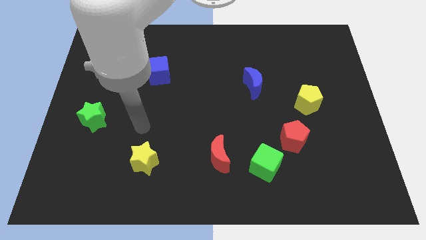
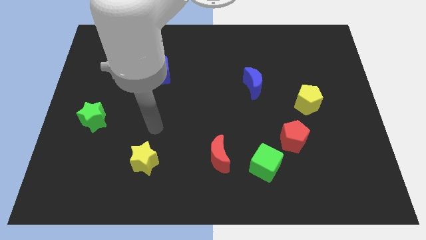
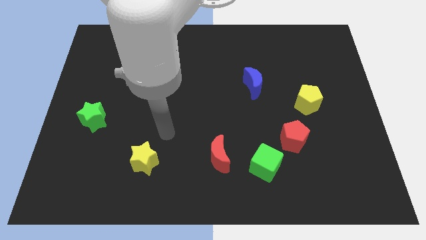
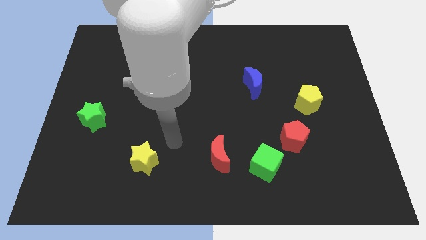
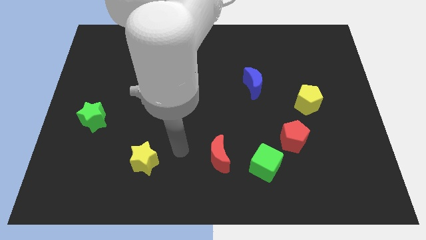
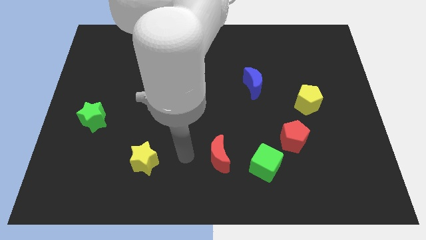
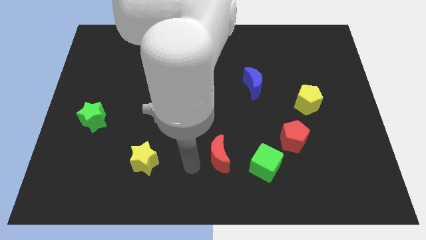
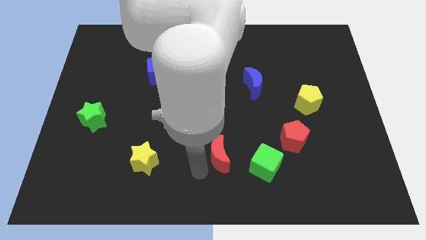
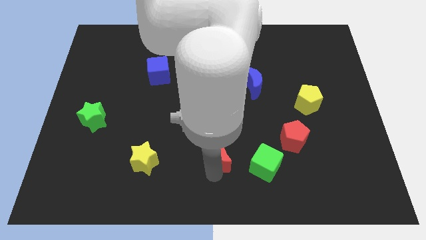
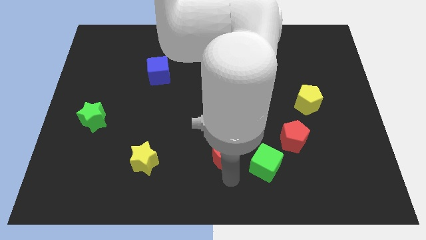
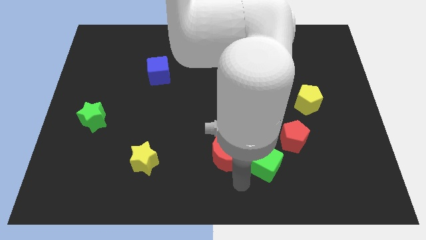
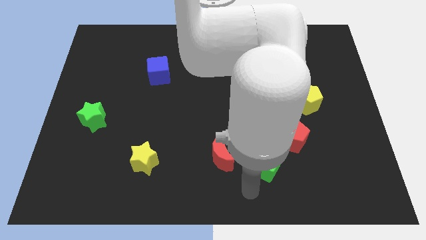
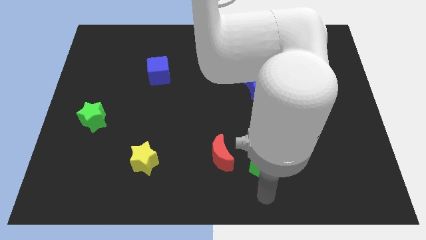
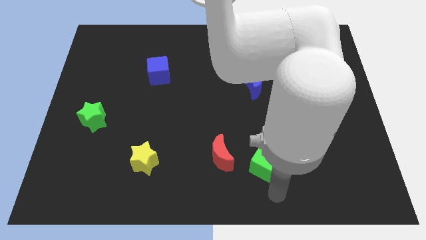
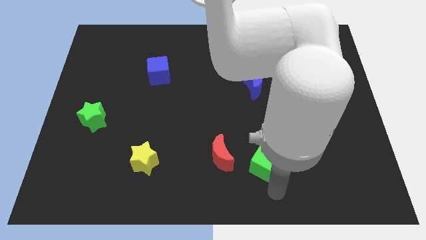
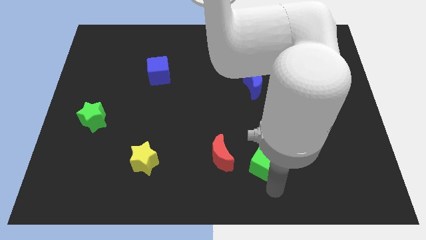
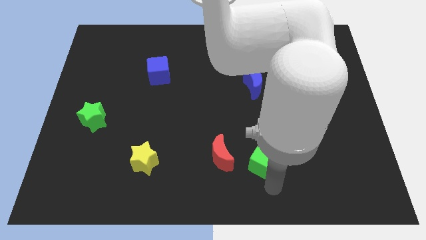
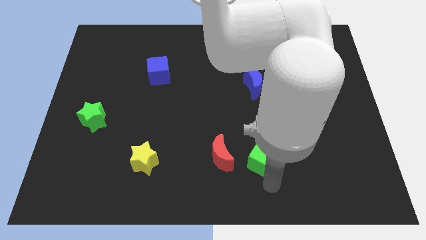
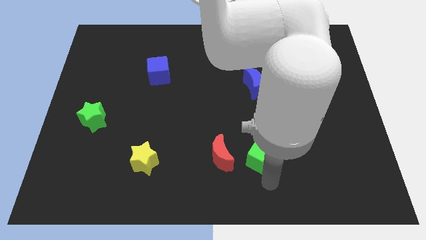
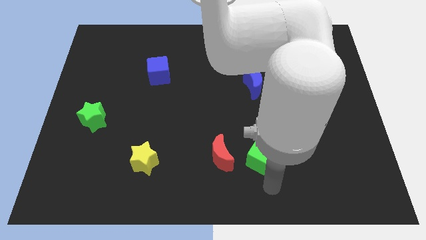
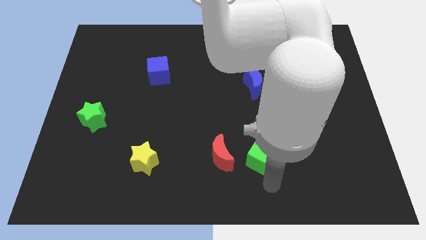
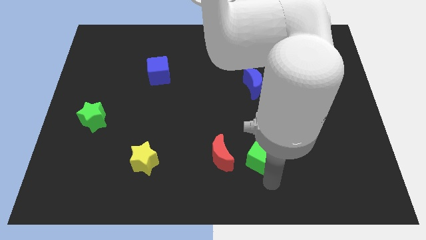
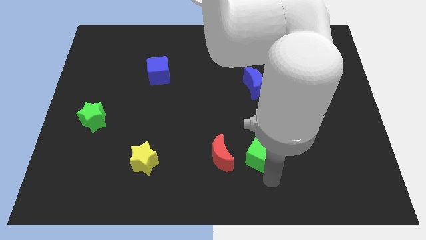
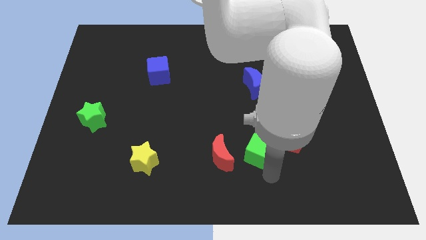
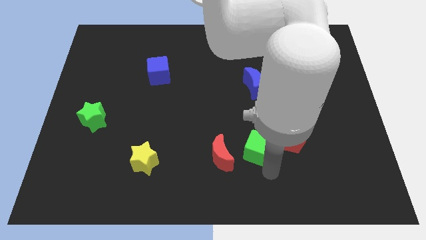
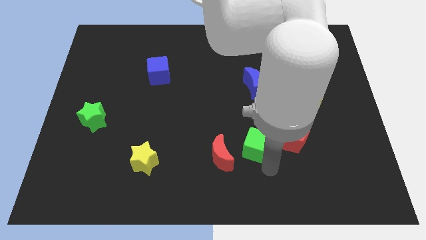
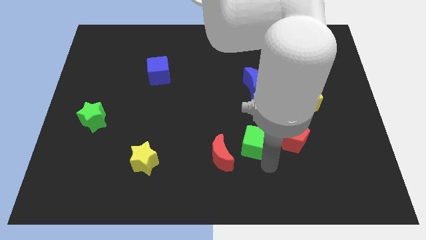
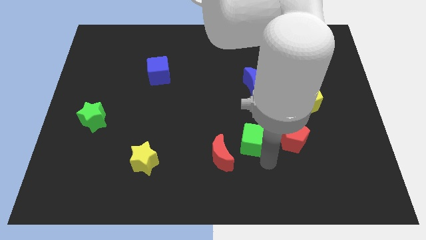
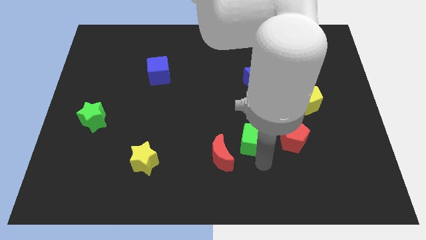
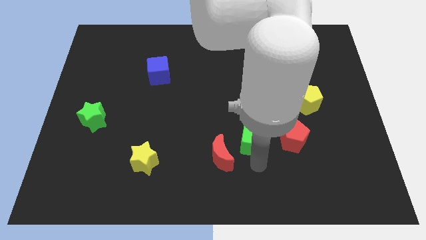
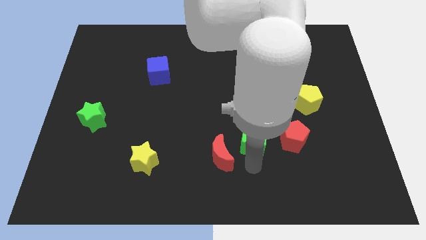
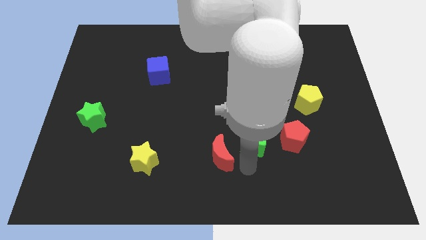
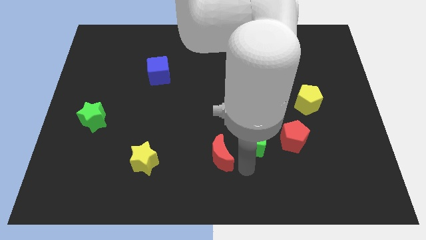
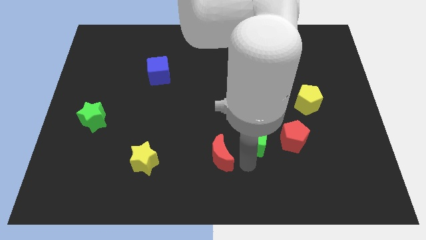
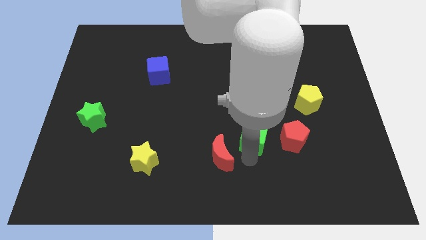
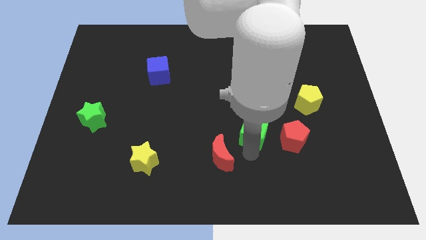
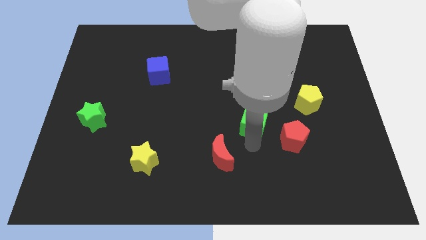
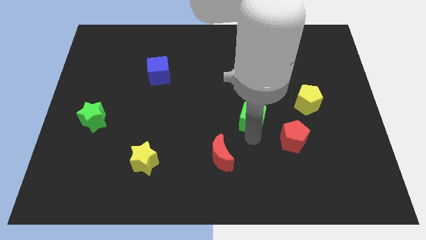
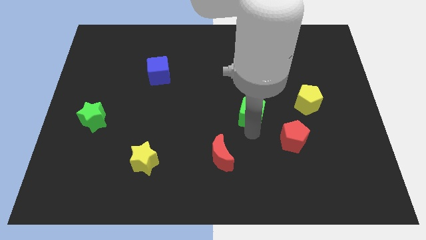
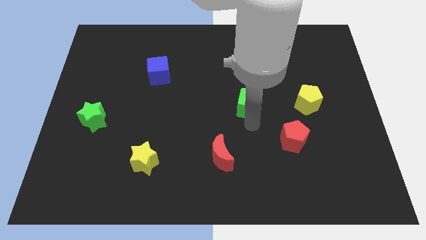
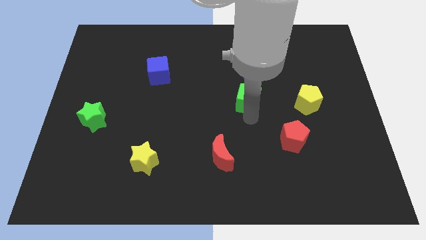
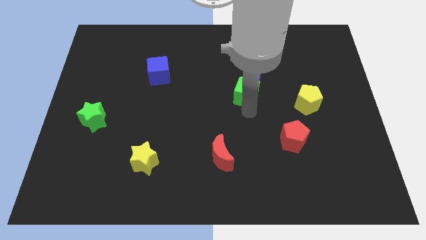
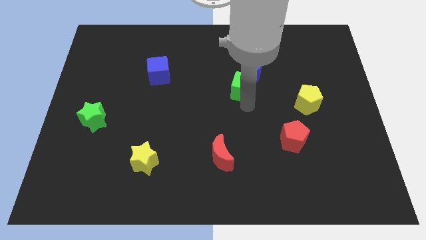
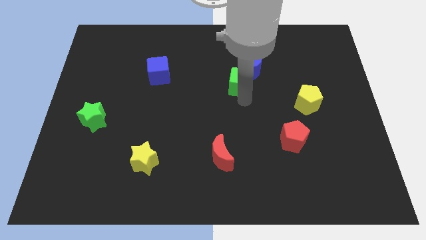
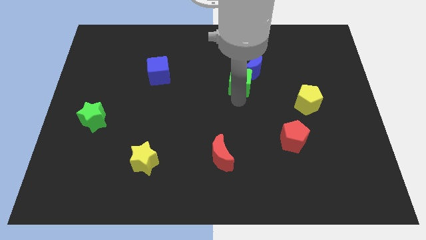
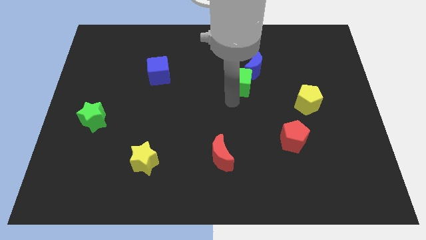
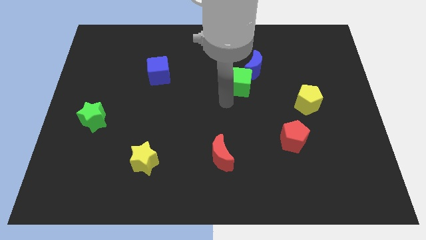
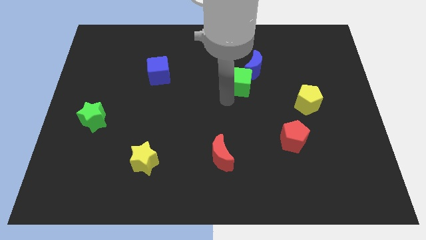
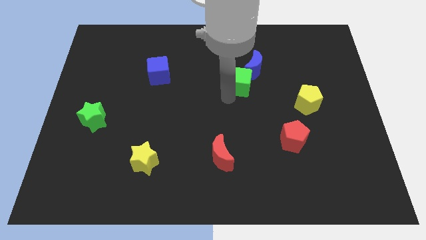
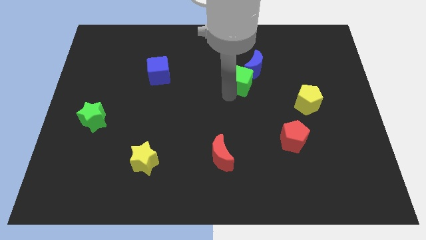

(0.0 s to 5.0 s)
slide the green cube next to the blue moon

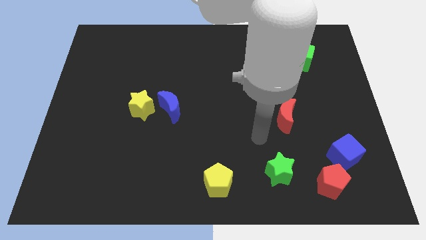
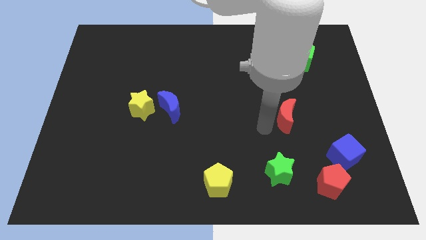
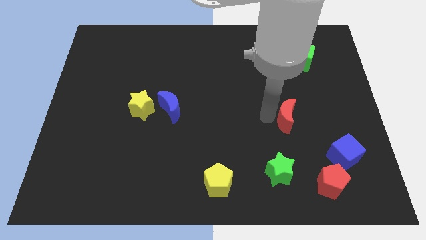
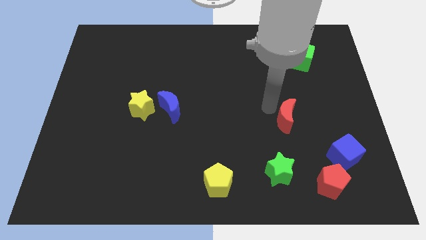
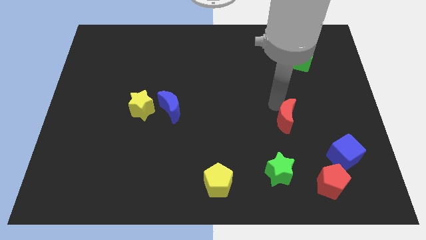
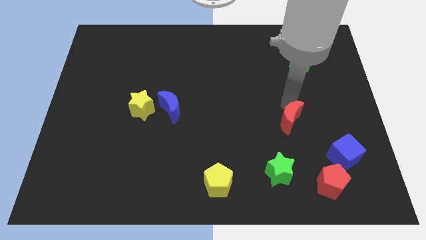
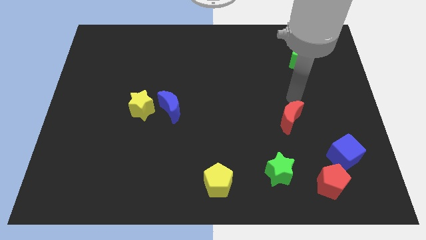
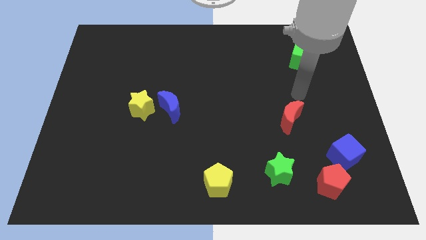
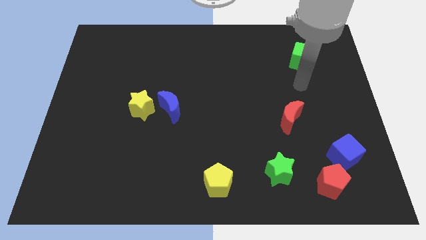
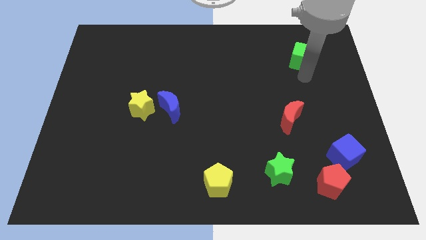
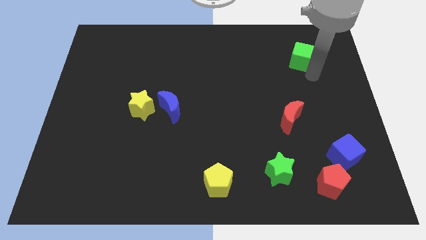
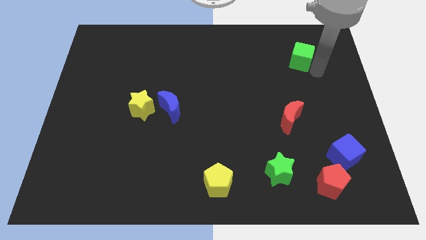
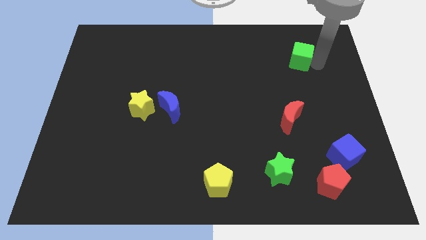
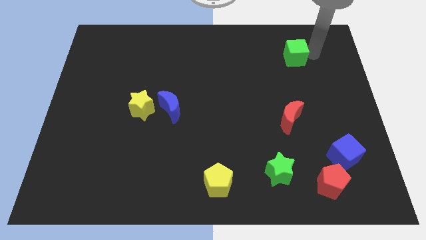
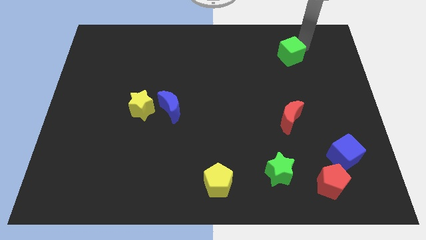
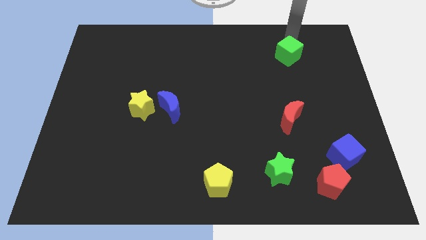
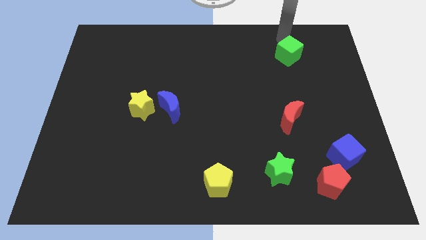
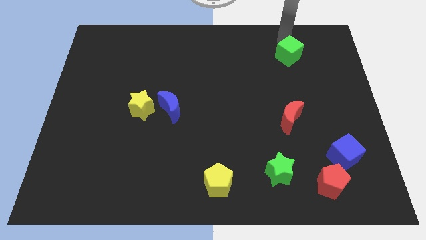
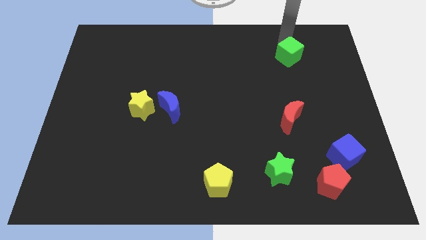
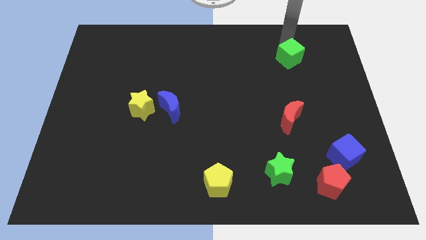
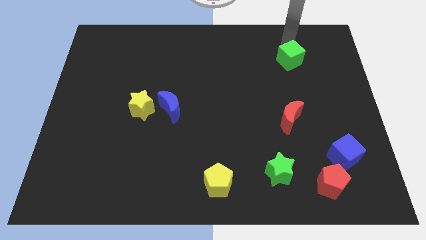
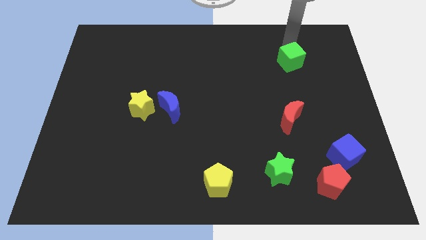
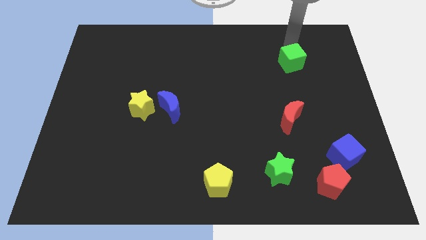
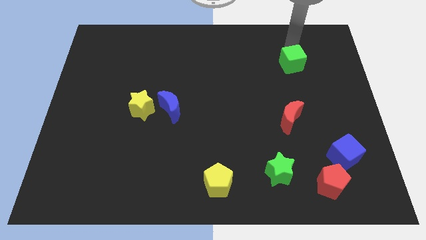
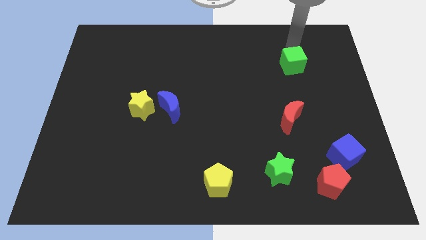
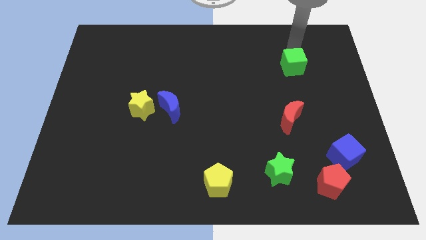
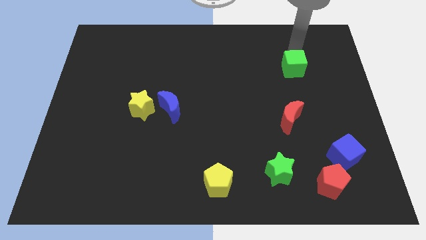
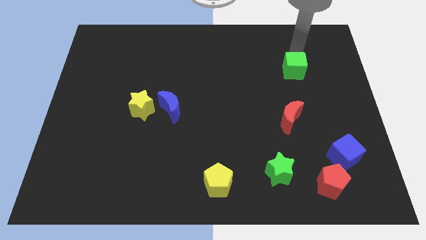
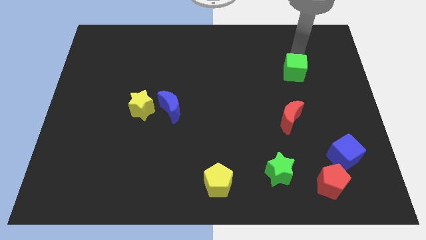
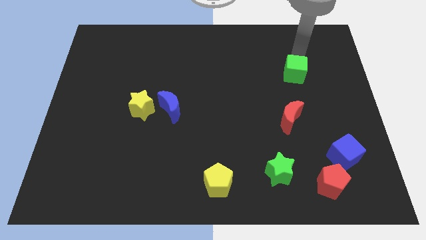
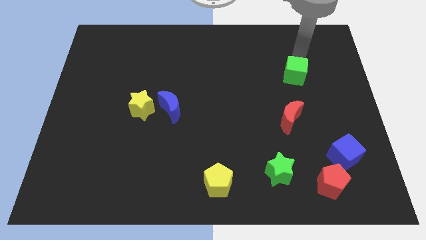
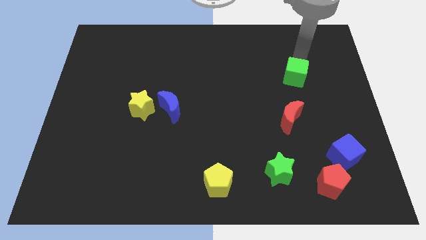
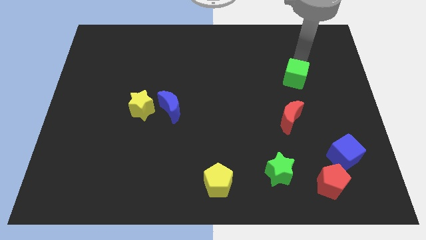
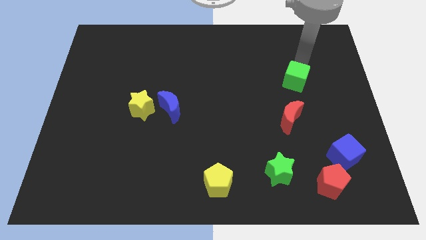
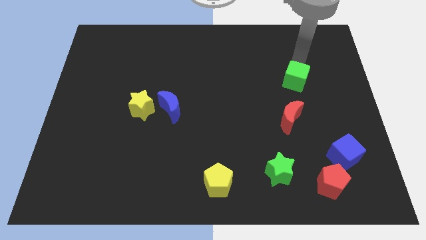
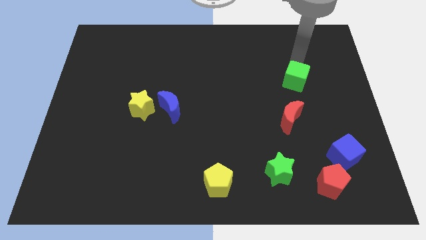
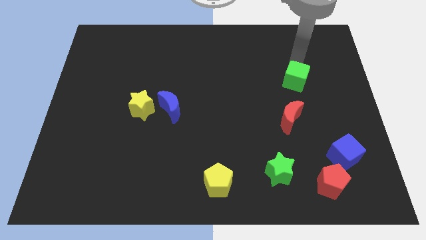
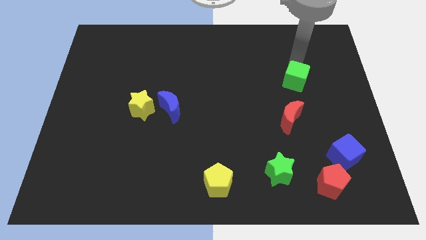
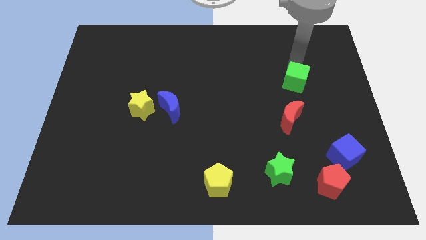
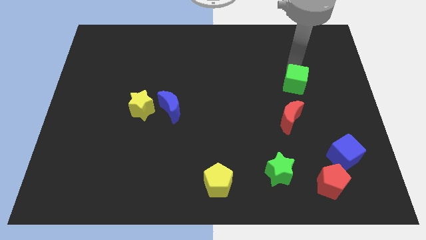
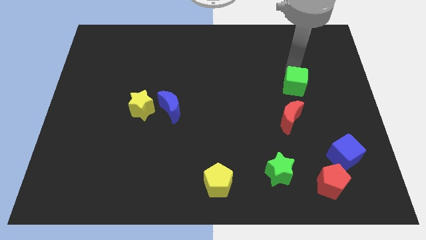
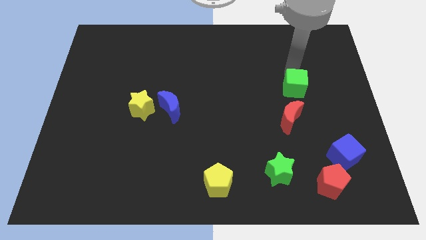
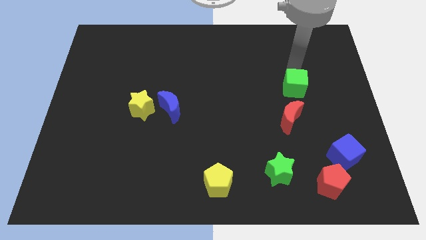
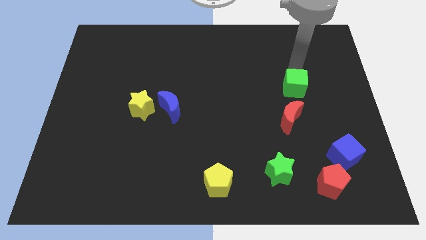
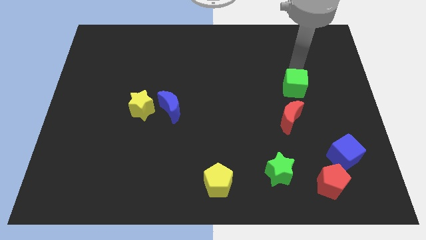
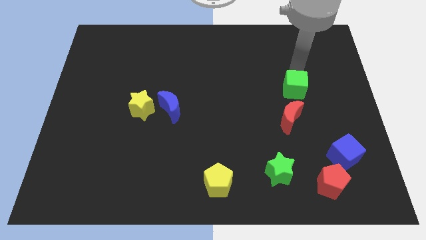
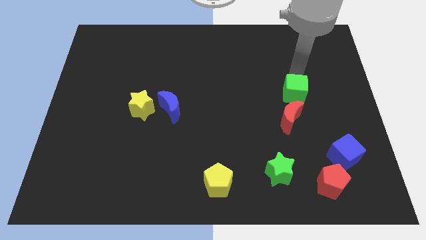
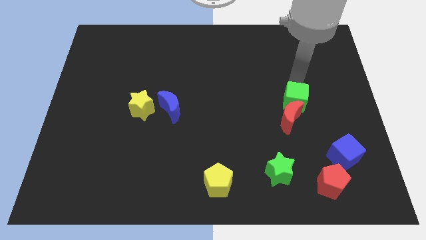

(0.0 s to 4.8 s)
push the green cube close to the red moon
